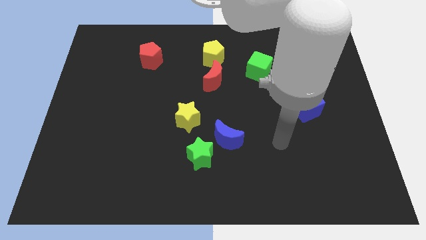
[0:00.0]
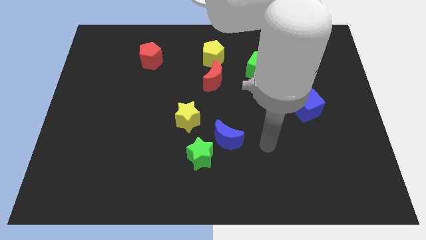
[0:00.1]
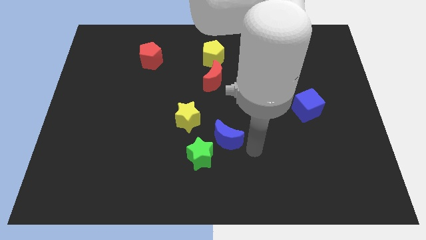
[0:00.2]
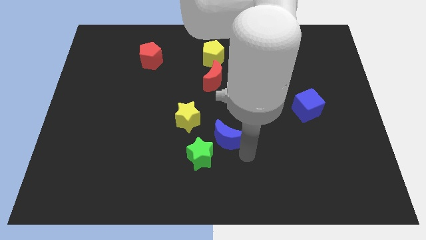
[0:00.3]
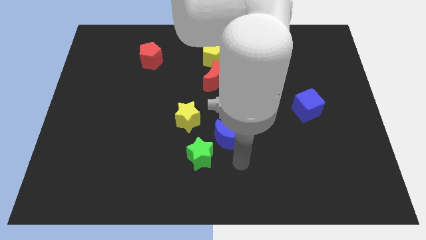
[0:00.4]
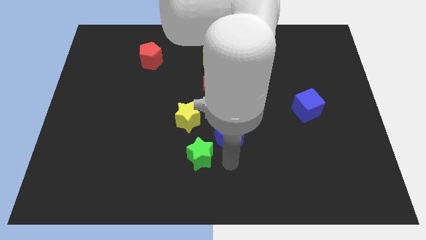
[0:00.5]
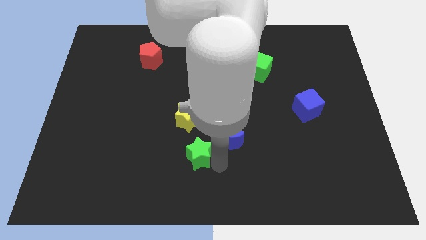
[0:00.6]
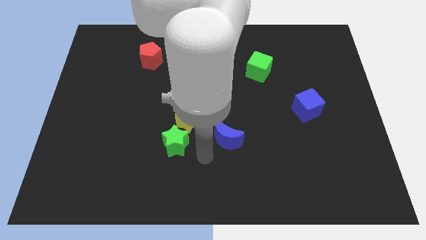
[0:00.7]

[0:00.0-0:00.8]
move the blue moon away from the green star

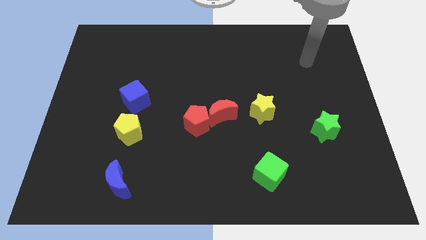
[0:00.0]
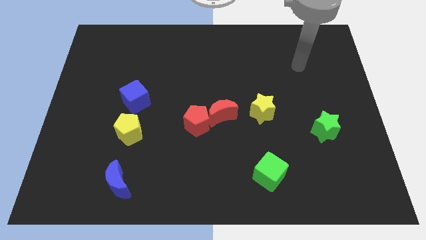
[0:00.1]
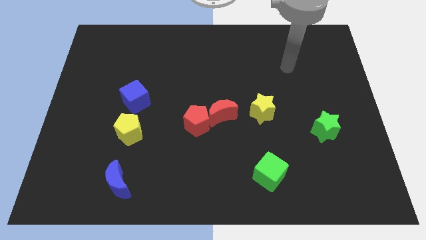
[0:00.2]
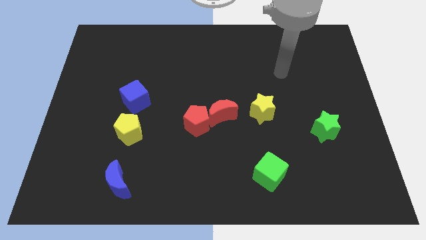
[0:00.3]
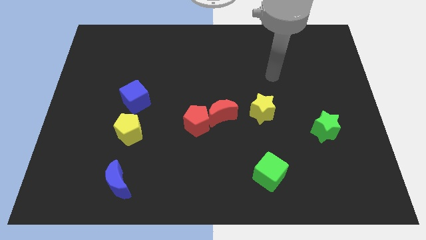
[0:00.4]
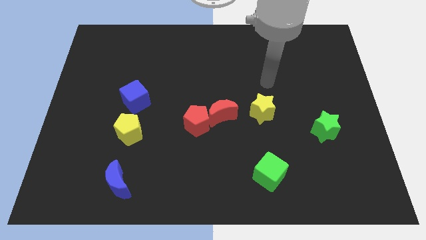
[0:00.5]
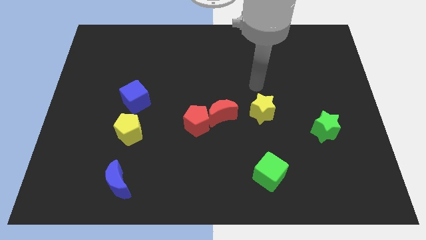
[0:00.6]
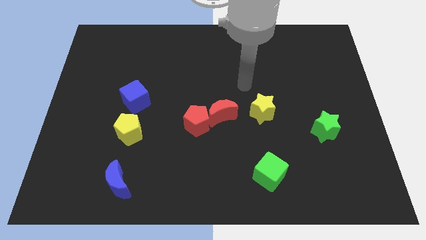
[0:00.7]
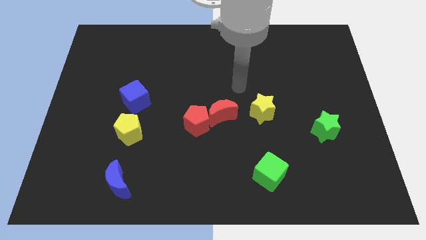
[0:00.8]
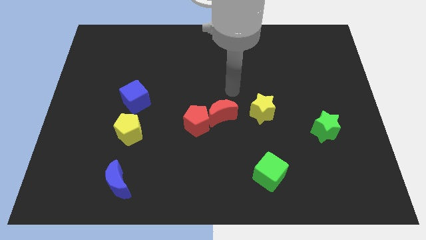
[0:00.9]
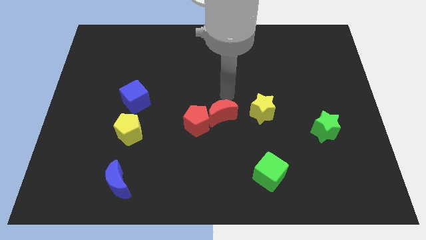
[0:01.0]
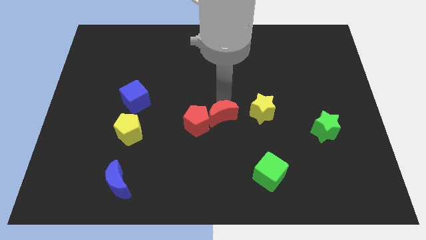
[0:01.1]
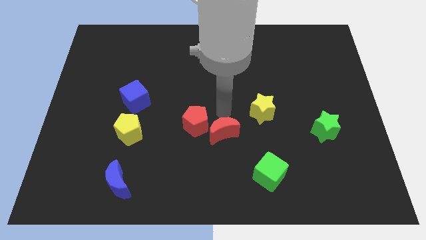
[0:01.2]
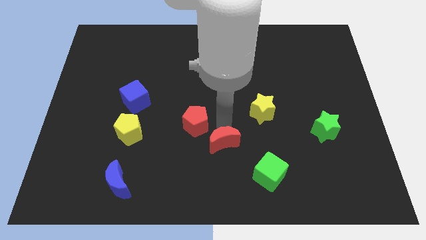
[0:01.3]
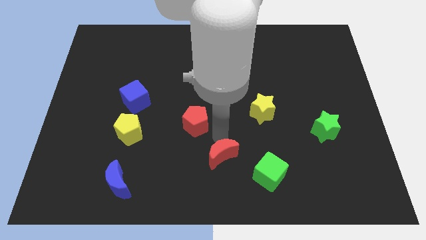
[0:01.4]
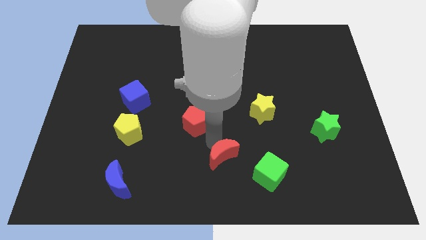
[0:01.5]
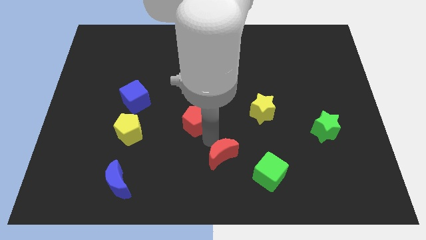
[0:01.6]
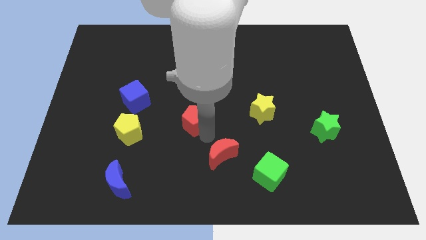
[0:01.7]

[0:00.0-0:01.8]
move the red pentagon away from the red moon

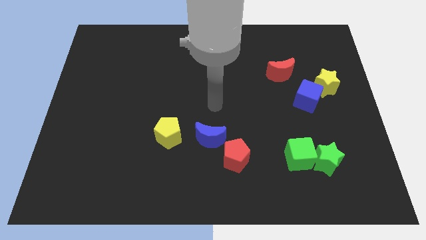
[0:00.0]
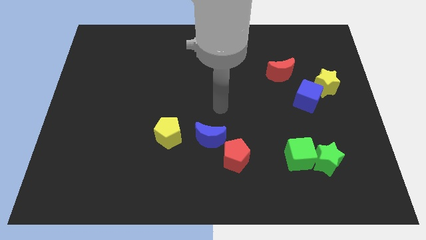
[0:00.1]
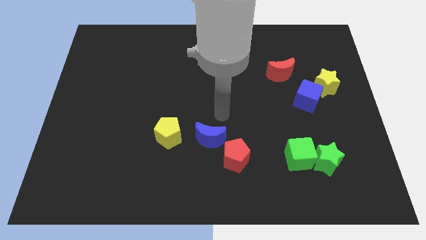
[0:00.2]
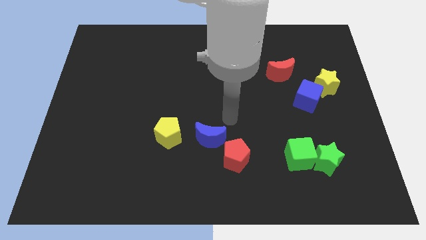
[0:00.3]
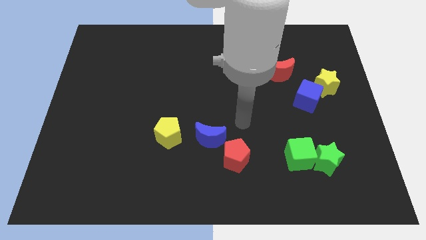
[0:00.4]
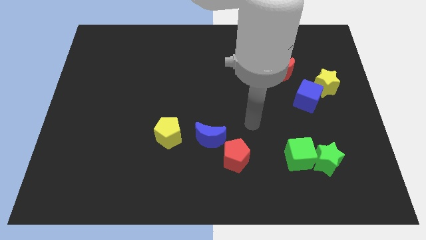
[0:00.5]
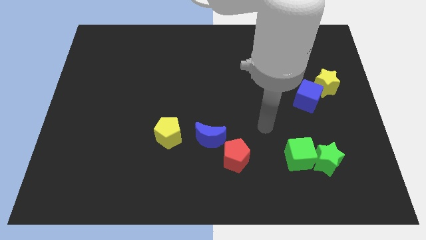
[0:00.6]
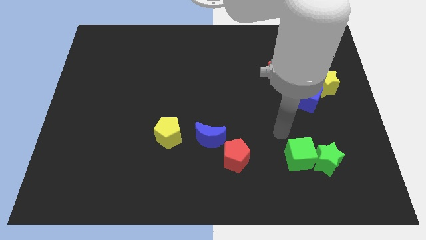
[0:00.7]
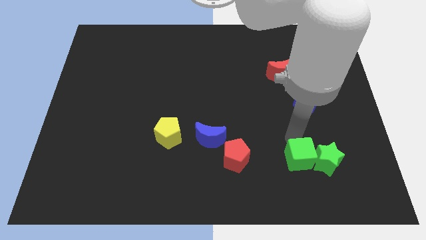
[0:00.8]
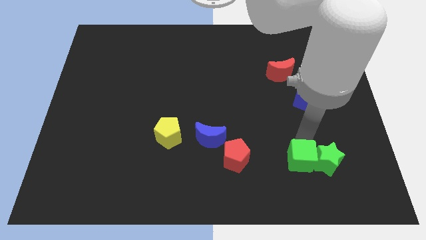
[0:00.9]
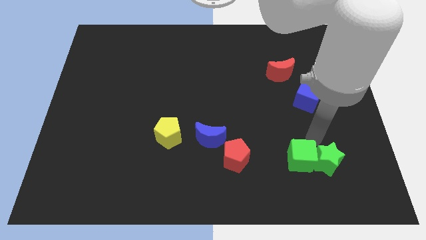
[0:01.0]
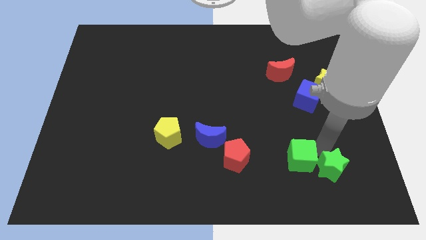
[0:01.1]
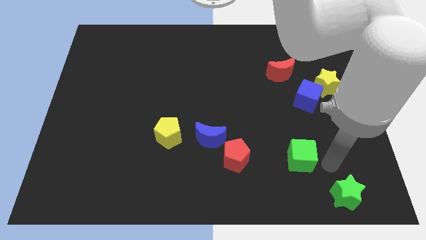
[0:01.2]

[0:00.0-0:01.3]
pull the green cube apart from the green star

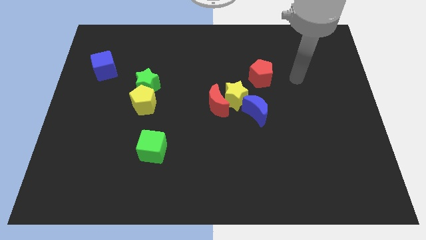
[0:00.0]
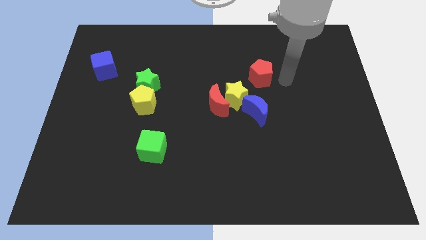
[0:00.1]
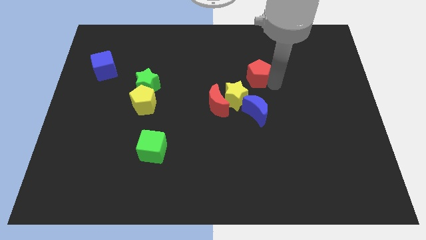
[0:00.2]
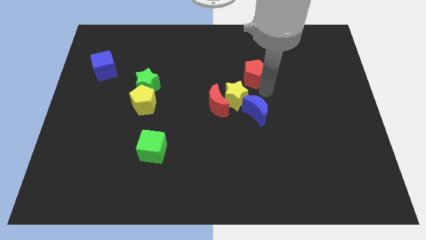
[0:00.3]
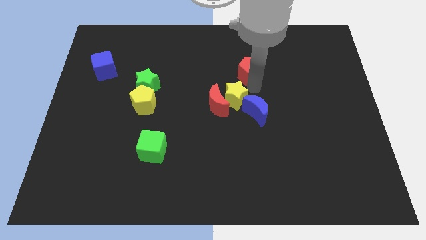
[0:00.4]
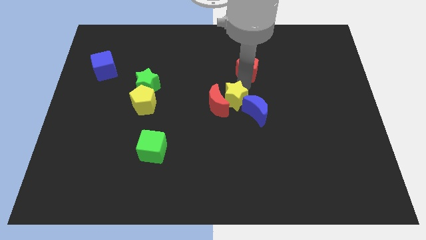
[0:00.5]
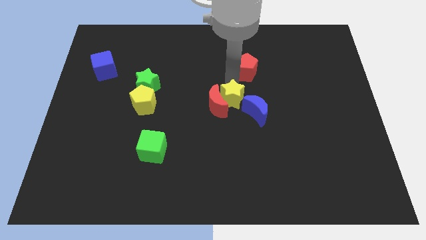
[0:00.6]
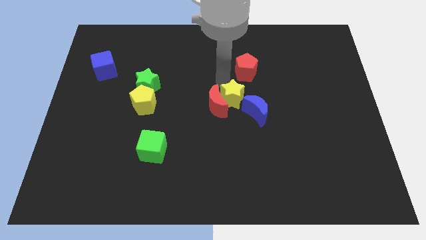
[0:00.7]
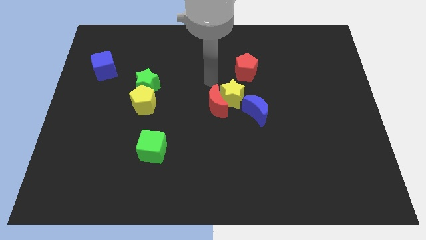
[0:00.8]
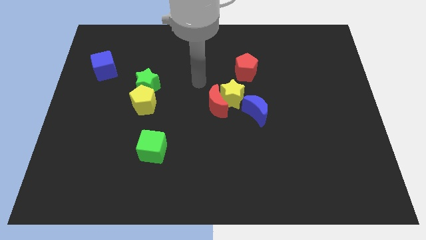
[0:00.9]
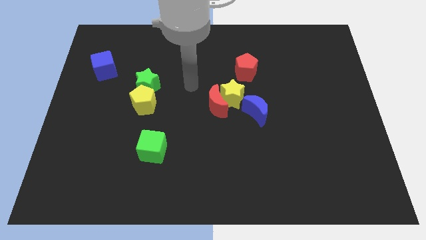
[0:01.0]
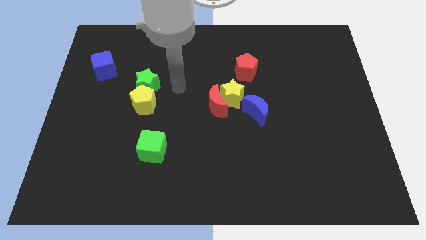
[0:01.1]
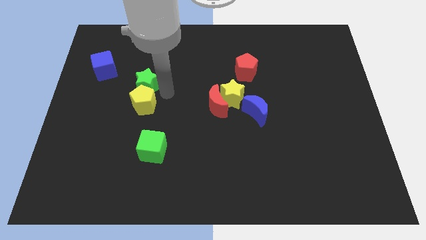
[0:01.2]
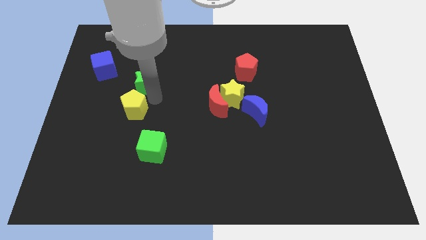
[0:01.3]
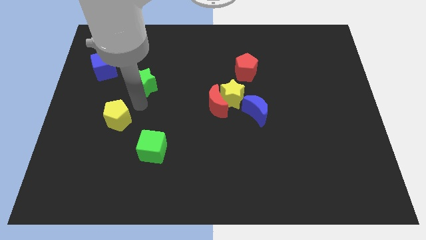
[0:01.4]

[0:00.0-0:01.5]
move the green star away from the yellow pentagon

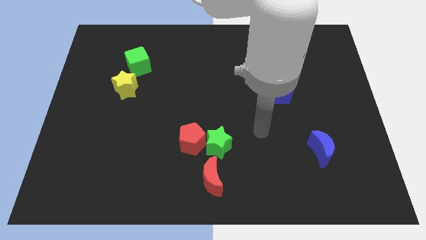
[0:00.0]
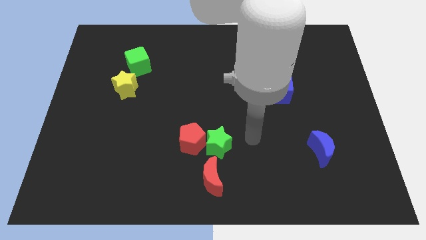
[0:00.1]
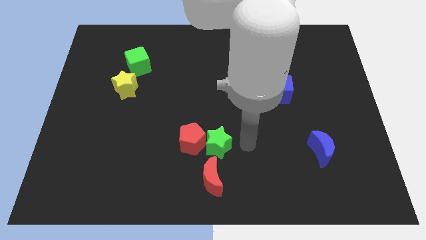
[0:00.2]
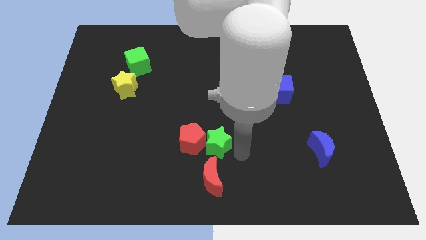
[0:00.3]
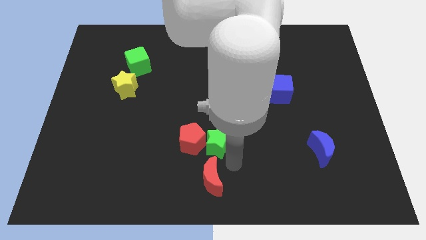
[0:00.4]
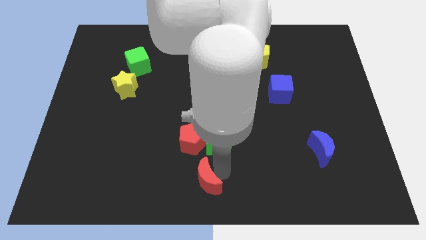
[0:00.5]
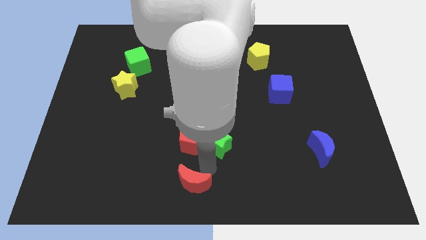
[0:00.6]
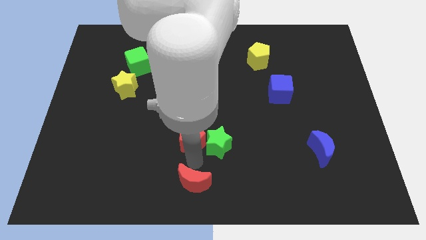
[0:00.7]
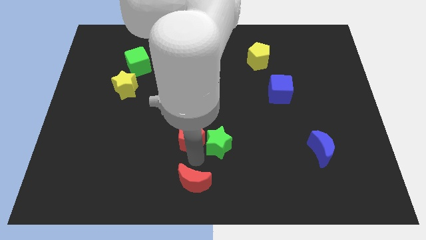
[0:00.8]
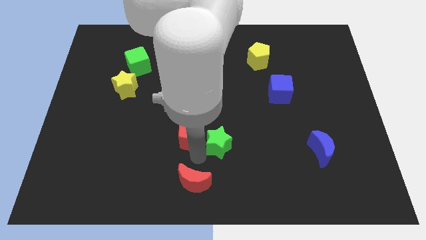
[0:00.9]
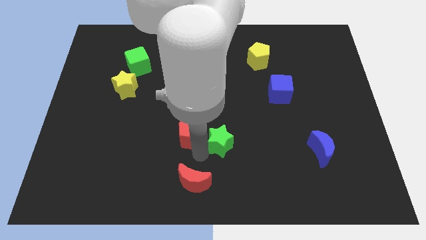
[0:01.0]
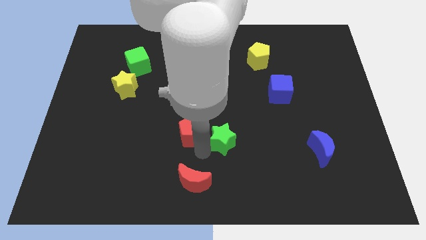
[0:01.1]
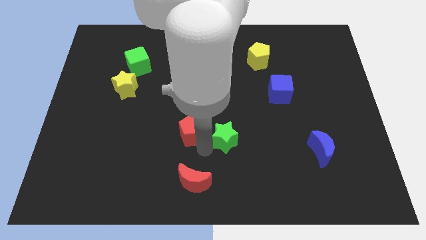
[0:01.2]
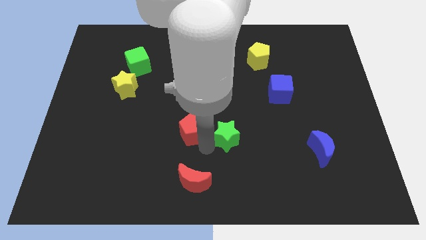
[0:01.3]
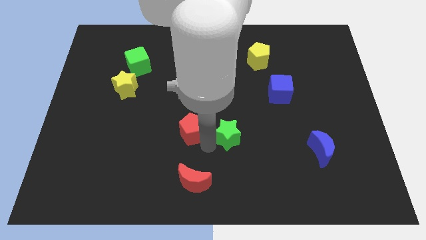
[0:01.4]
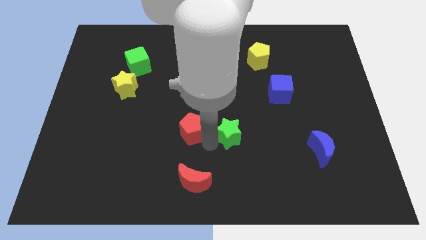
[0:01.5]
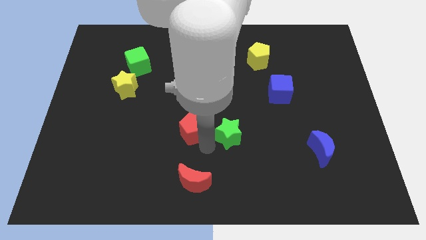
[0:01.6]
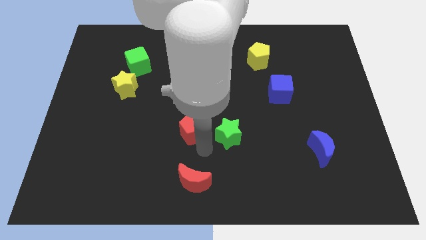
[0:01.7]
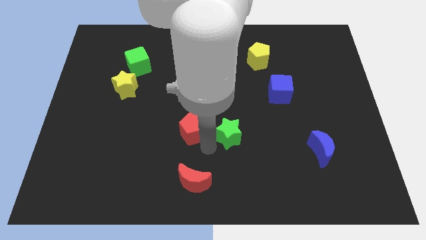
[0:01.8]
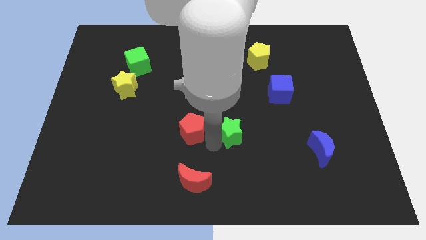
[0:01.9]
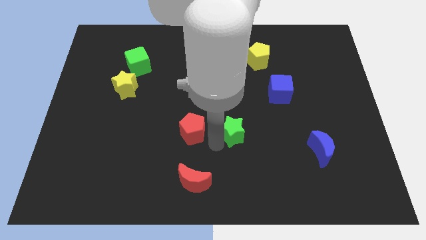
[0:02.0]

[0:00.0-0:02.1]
pull the green star apart from the red pentagon and red moon

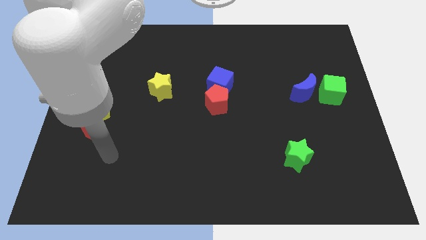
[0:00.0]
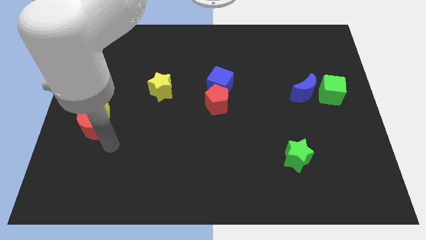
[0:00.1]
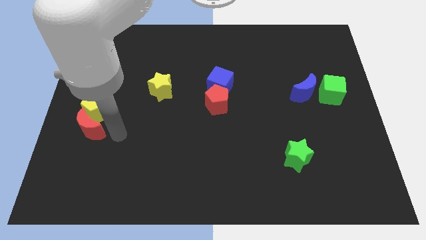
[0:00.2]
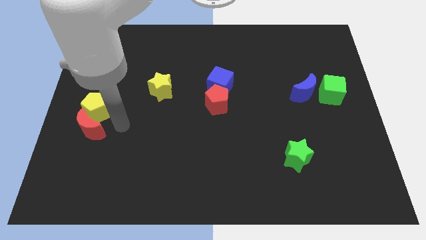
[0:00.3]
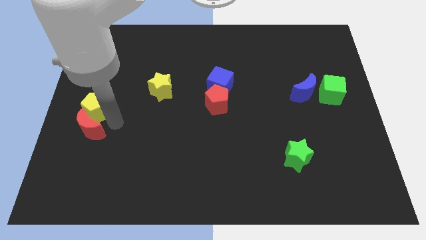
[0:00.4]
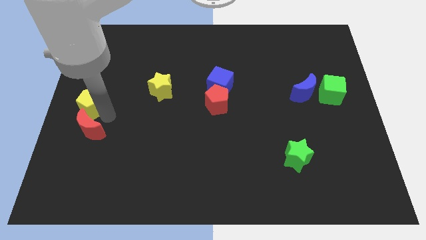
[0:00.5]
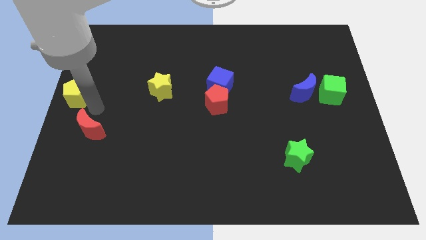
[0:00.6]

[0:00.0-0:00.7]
move the red moon away from the yellow pentagon

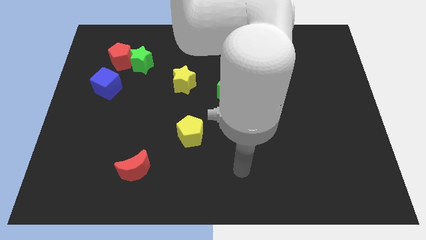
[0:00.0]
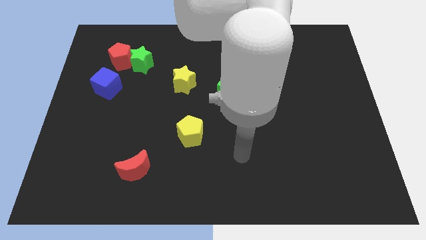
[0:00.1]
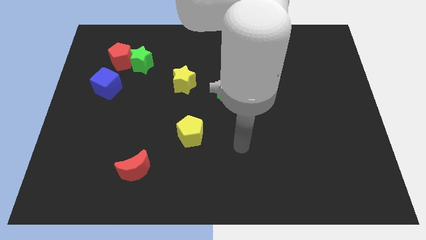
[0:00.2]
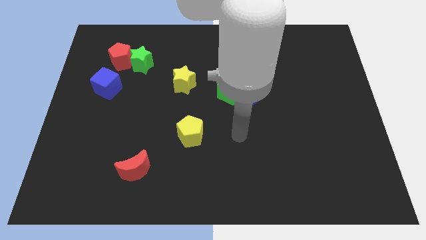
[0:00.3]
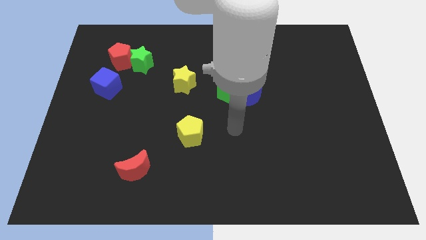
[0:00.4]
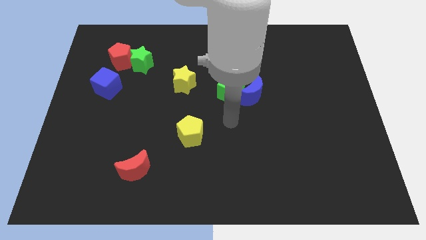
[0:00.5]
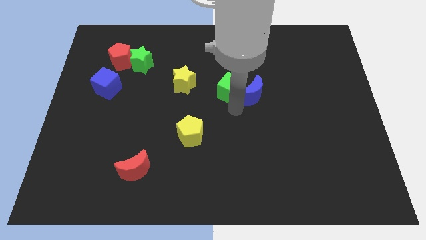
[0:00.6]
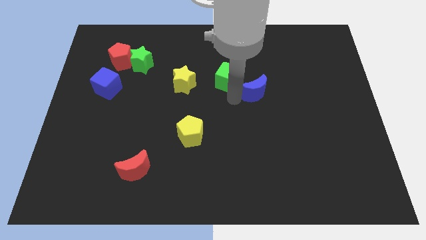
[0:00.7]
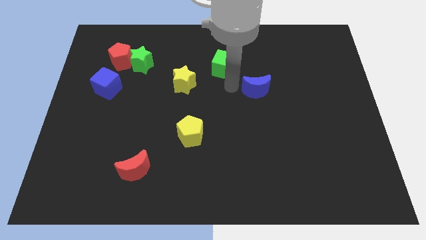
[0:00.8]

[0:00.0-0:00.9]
separate the blue moon from the green cube

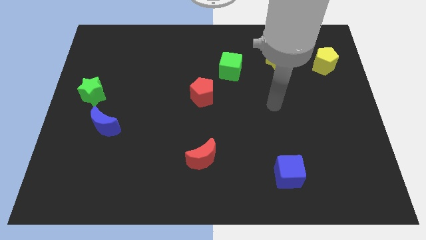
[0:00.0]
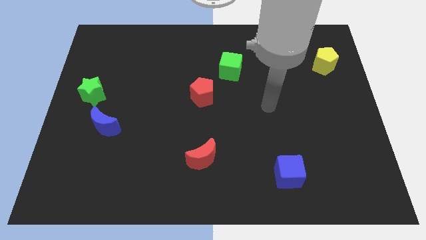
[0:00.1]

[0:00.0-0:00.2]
pull the blue moon apart from the green star
